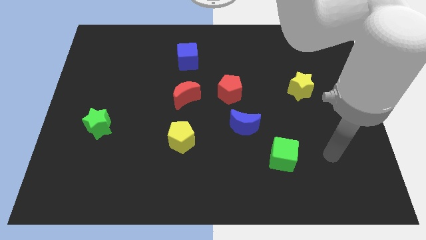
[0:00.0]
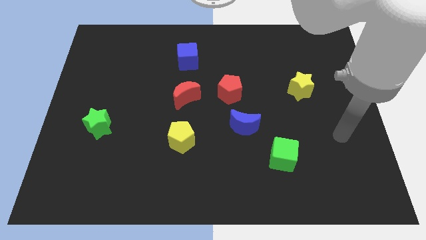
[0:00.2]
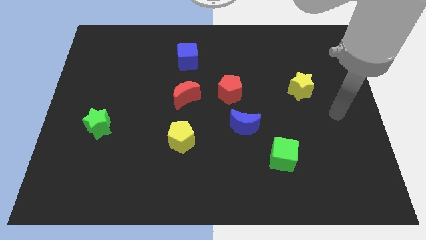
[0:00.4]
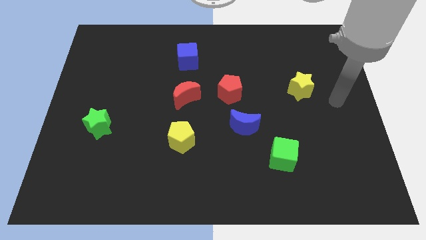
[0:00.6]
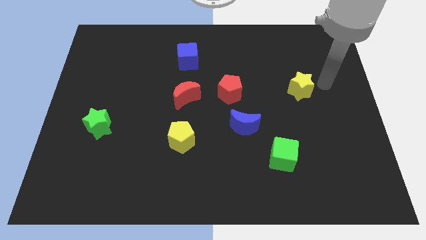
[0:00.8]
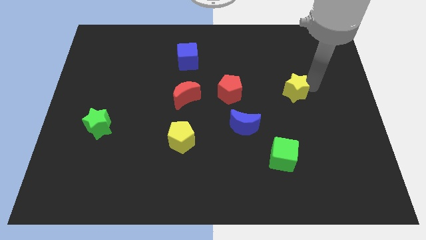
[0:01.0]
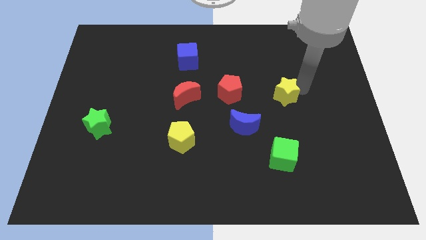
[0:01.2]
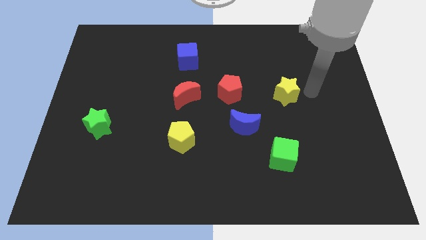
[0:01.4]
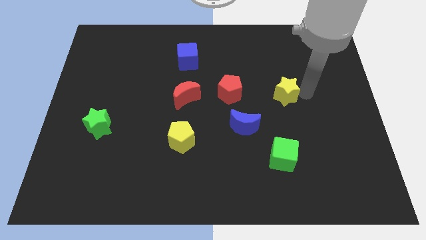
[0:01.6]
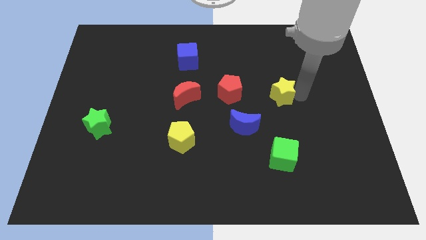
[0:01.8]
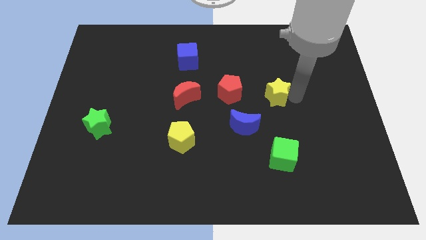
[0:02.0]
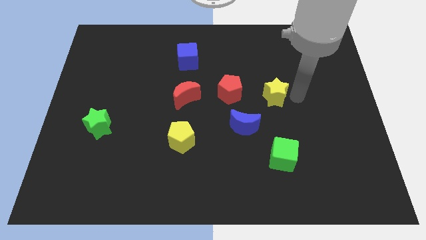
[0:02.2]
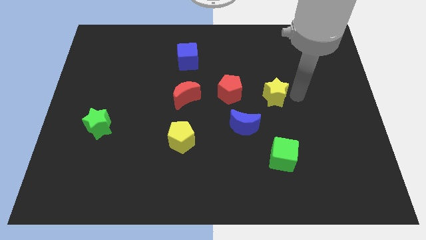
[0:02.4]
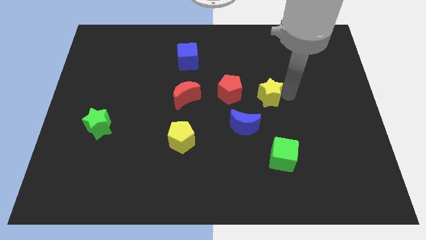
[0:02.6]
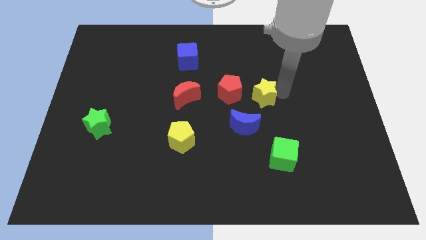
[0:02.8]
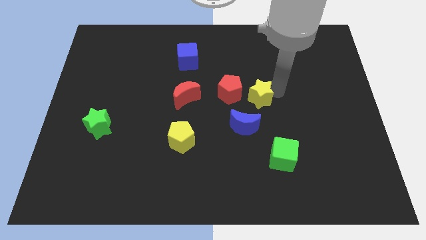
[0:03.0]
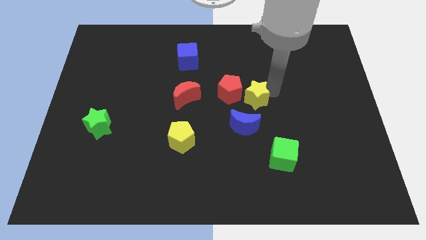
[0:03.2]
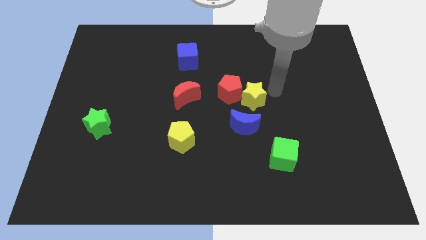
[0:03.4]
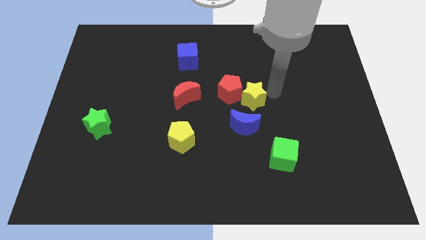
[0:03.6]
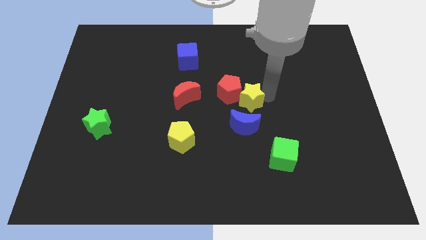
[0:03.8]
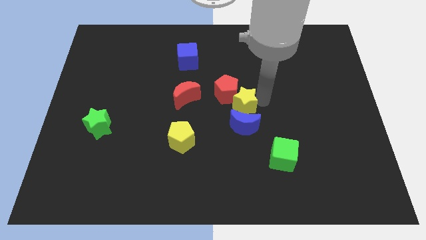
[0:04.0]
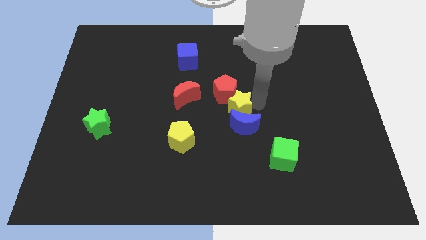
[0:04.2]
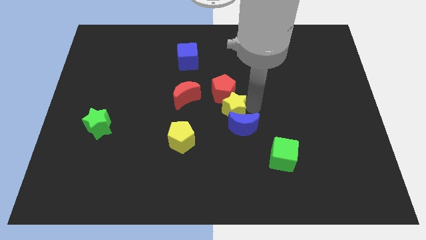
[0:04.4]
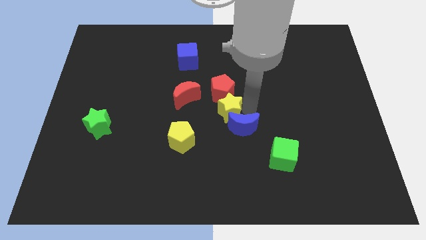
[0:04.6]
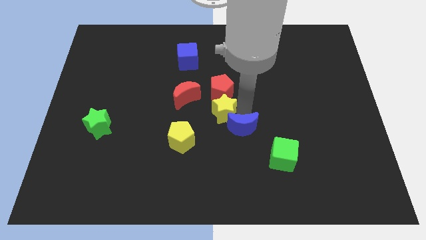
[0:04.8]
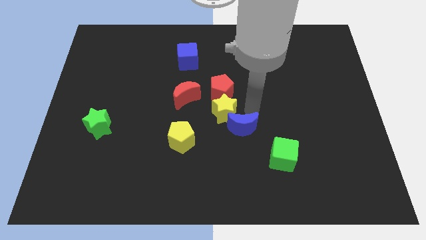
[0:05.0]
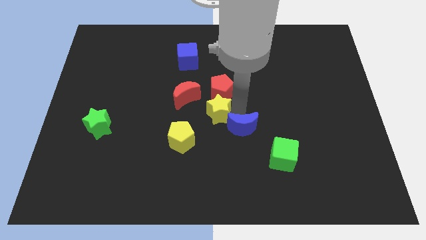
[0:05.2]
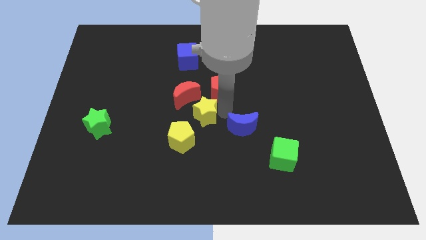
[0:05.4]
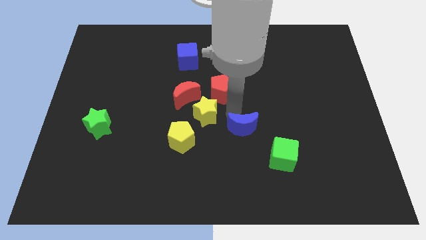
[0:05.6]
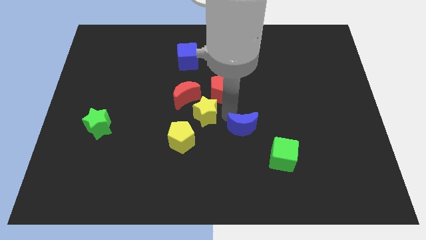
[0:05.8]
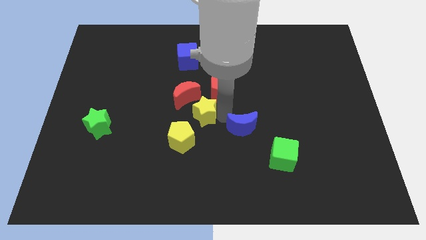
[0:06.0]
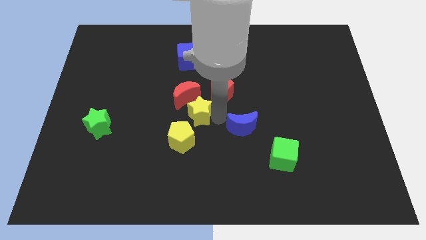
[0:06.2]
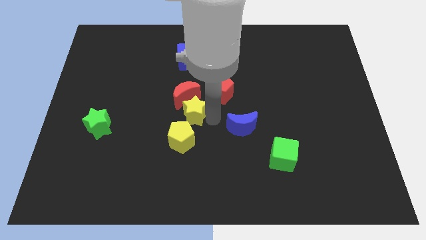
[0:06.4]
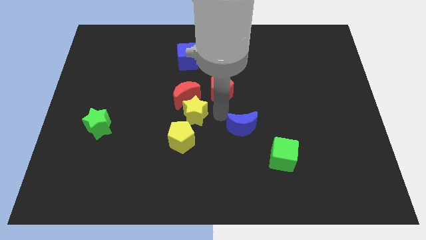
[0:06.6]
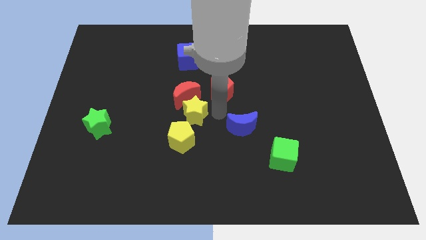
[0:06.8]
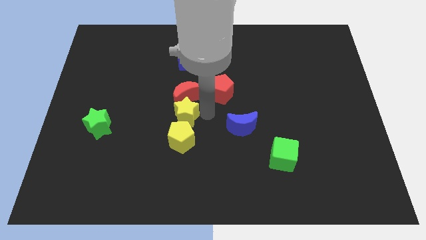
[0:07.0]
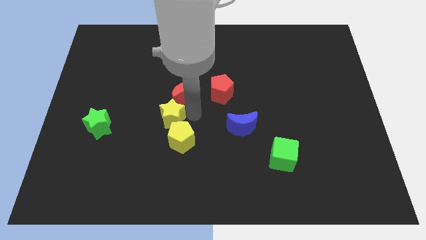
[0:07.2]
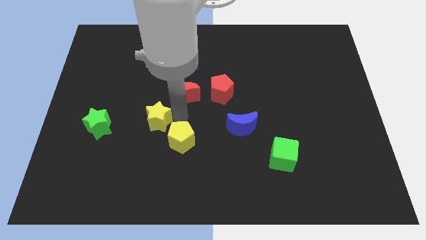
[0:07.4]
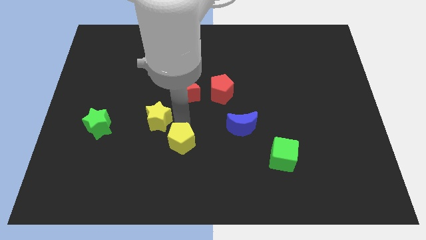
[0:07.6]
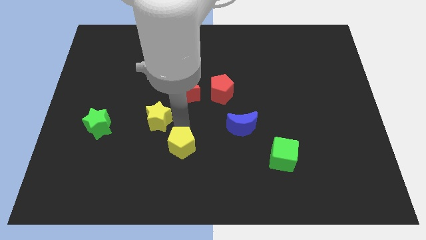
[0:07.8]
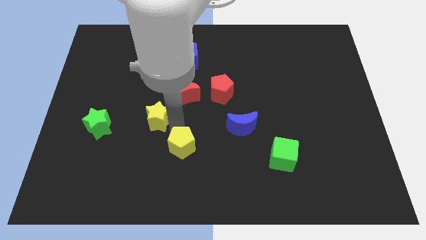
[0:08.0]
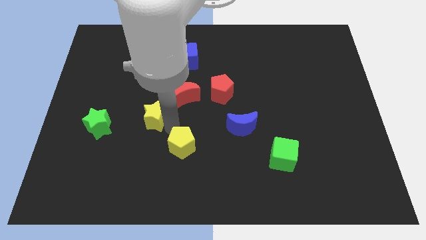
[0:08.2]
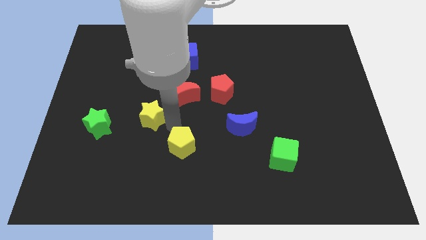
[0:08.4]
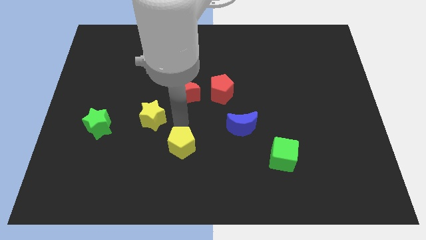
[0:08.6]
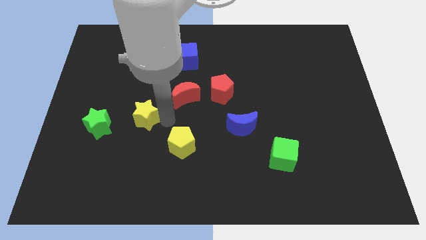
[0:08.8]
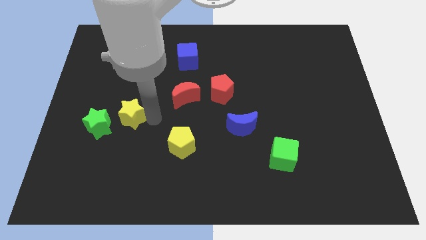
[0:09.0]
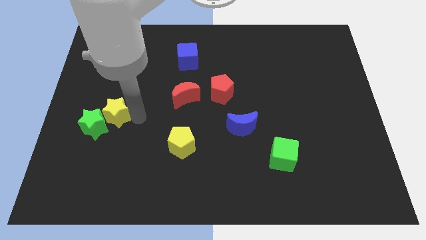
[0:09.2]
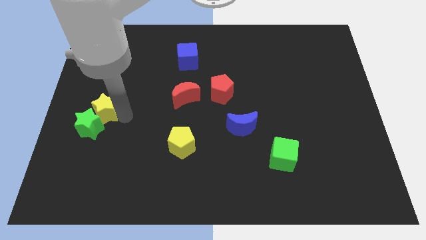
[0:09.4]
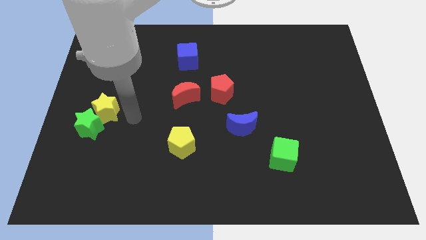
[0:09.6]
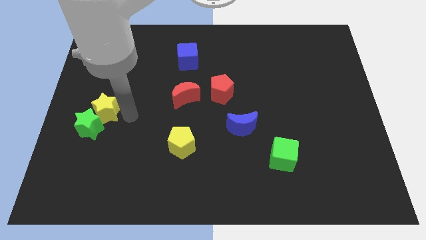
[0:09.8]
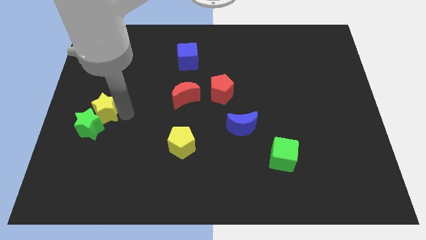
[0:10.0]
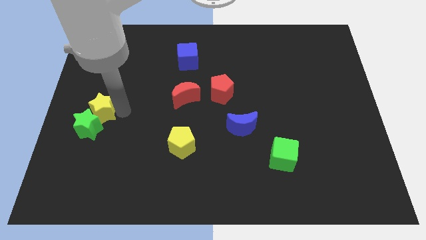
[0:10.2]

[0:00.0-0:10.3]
slide the yellow star to the center left
